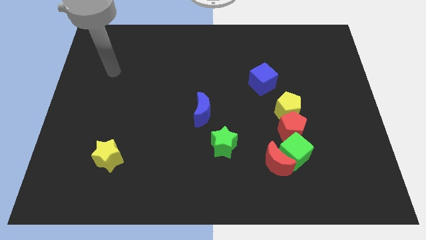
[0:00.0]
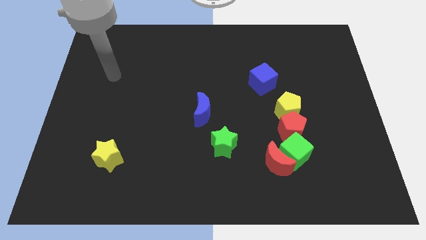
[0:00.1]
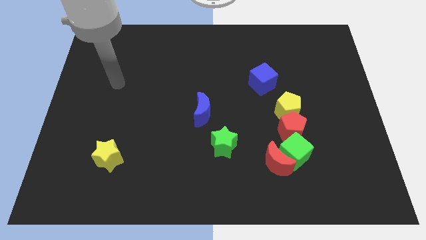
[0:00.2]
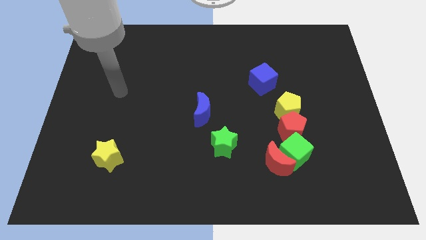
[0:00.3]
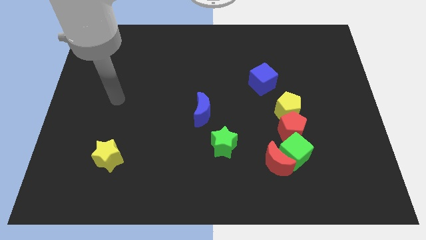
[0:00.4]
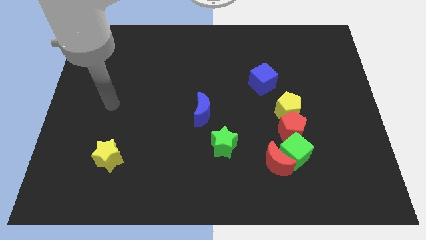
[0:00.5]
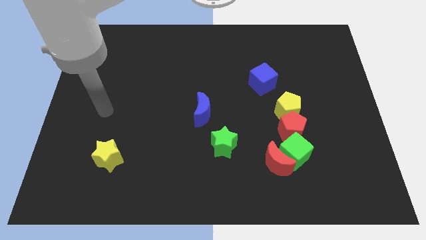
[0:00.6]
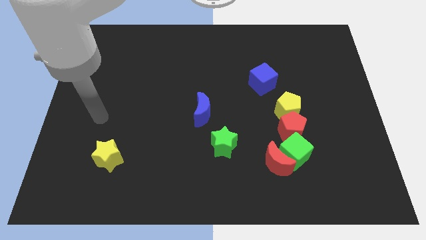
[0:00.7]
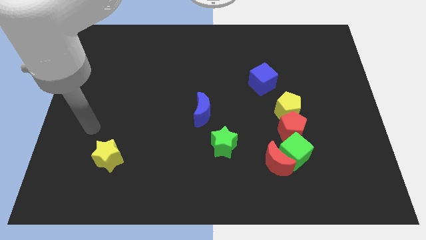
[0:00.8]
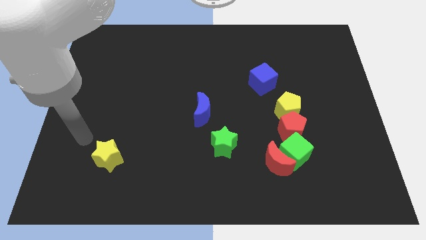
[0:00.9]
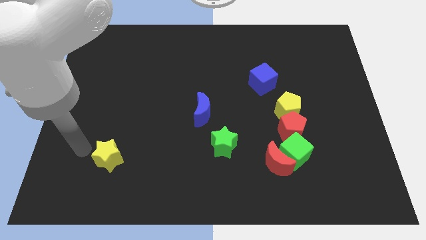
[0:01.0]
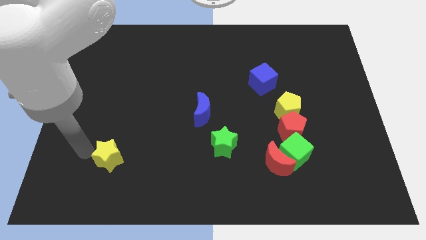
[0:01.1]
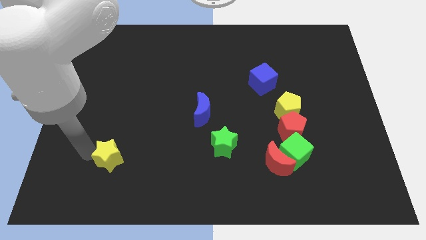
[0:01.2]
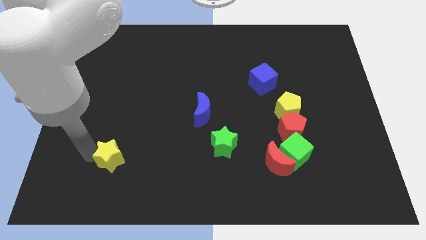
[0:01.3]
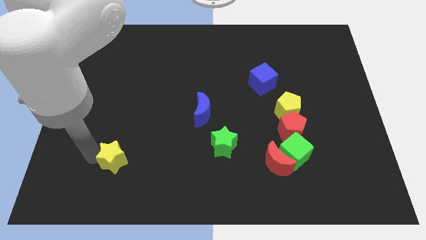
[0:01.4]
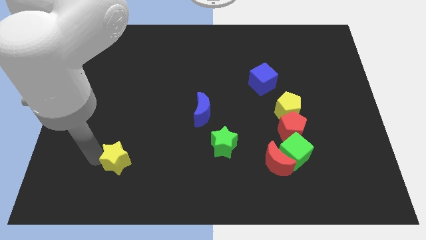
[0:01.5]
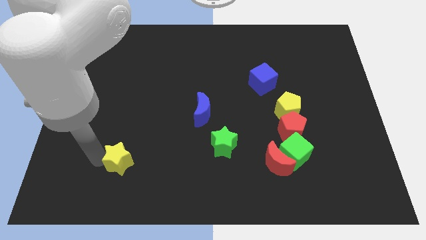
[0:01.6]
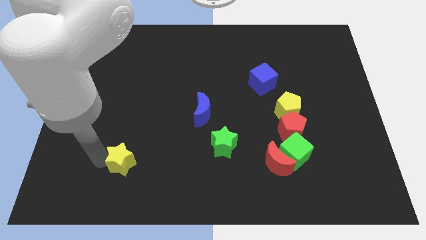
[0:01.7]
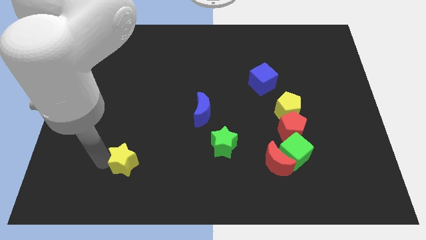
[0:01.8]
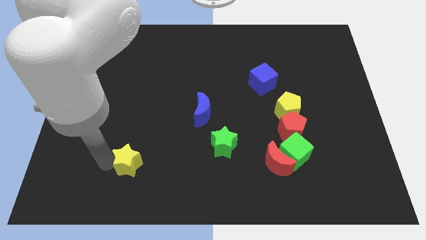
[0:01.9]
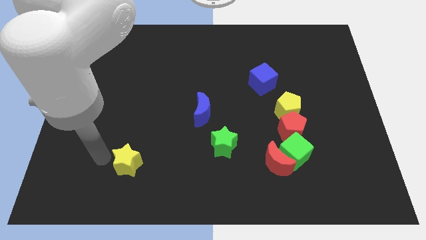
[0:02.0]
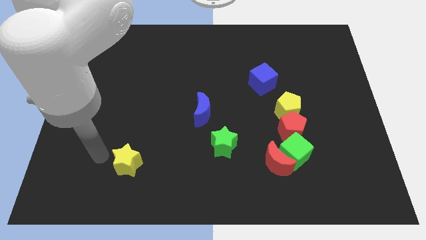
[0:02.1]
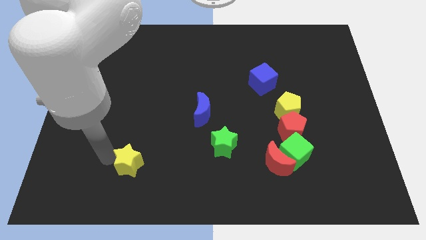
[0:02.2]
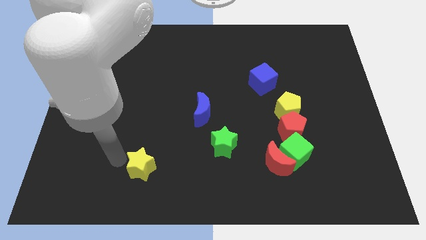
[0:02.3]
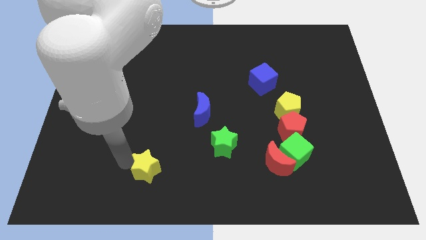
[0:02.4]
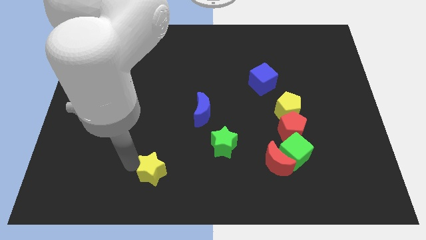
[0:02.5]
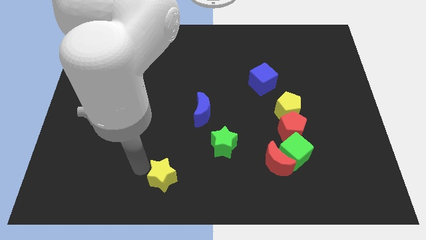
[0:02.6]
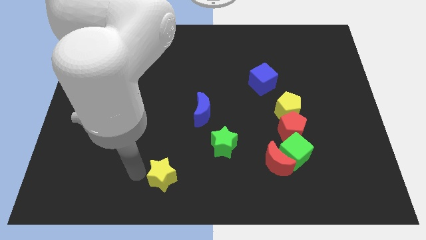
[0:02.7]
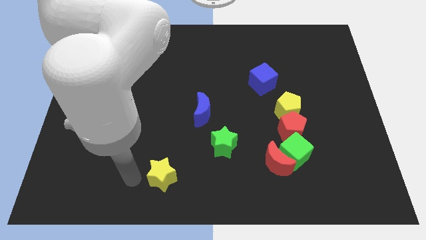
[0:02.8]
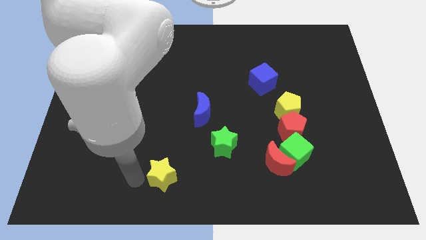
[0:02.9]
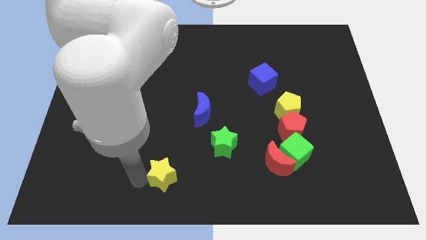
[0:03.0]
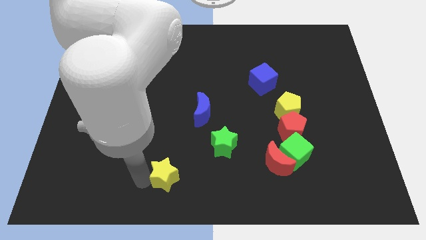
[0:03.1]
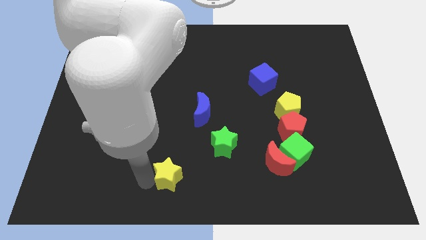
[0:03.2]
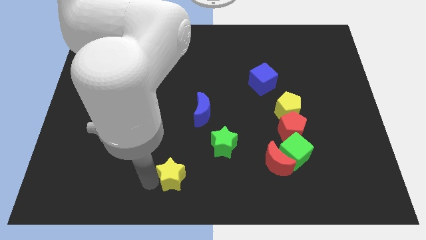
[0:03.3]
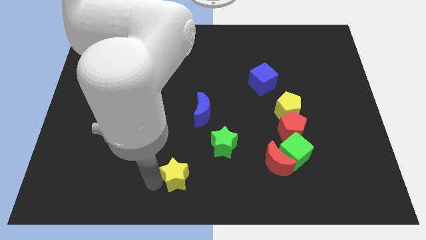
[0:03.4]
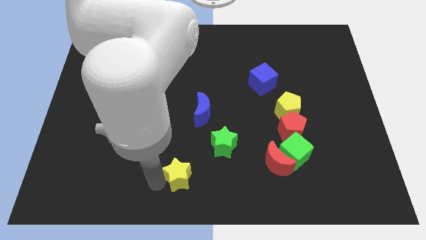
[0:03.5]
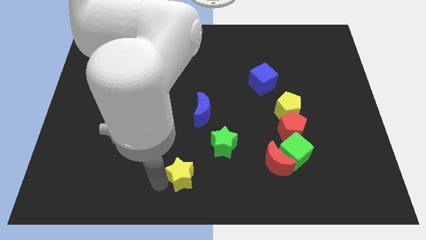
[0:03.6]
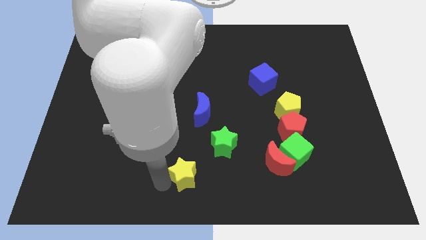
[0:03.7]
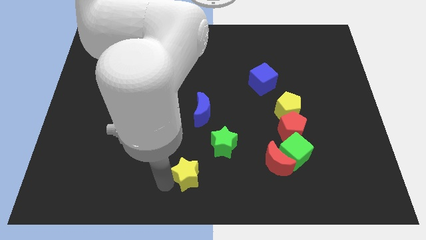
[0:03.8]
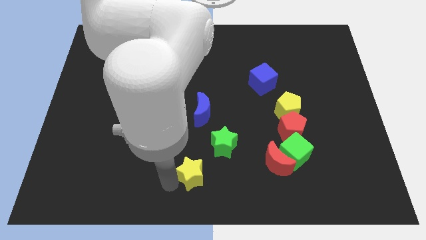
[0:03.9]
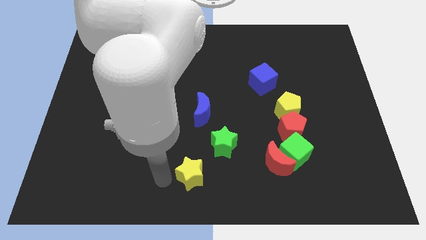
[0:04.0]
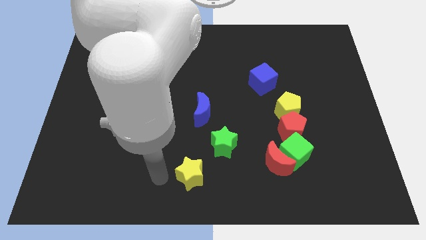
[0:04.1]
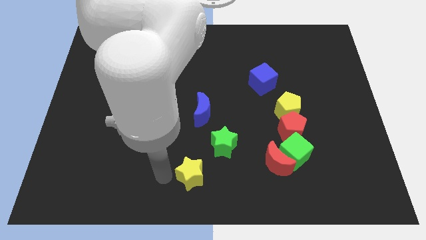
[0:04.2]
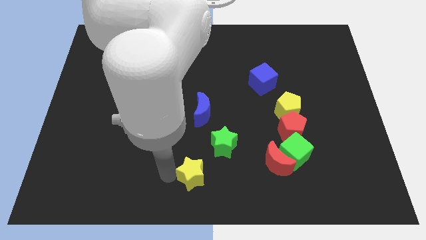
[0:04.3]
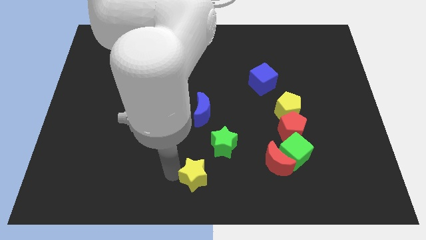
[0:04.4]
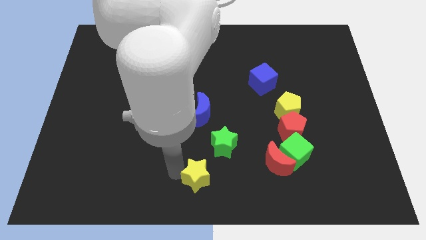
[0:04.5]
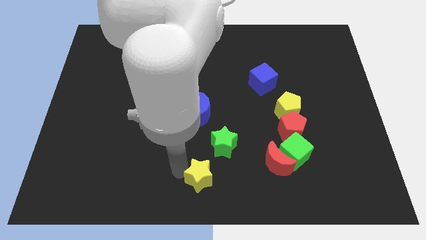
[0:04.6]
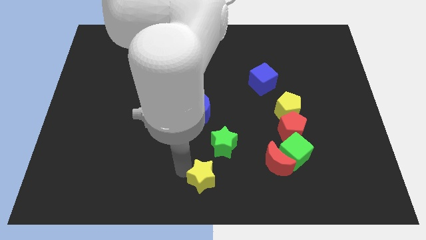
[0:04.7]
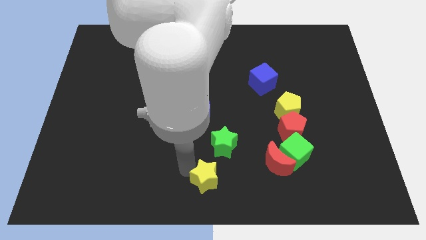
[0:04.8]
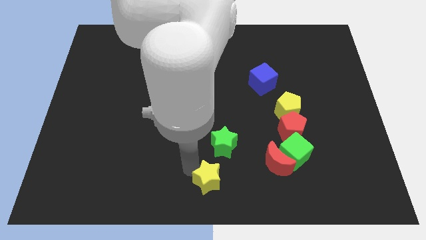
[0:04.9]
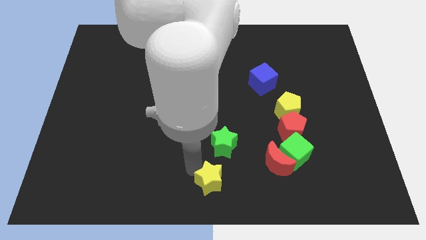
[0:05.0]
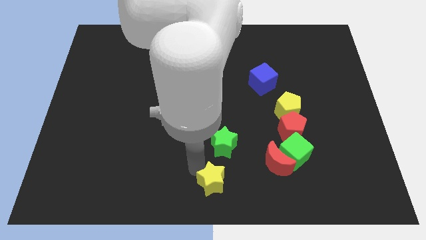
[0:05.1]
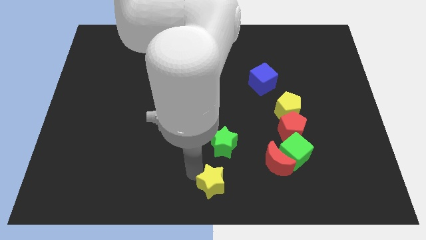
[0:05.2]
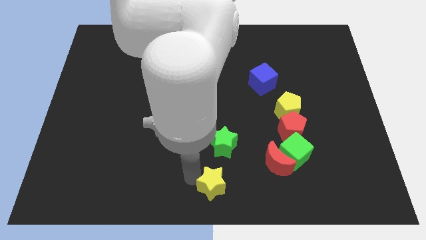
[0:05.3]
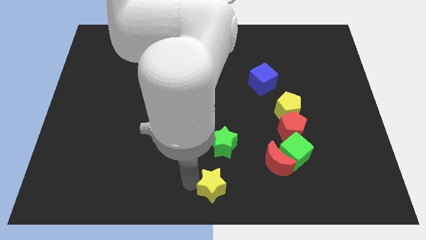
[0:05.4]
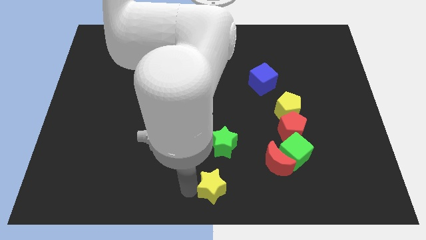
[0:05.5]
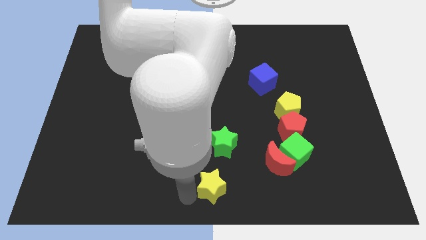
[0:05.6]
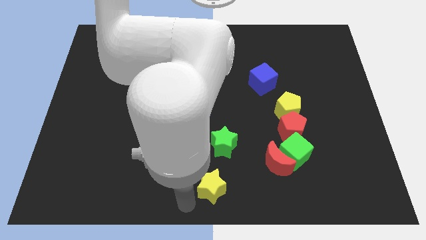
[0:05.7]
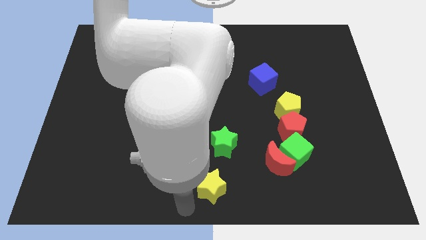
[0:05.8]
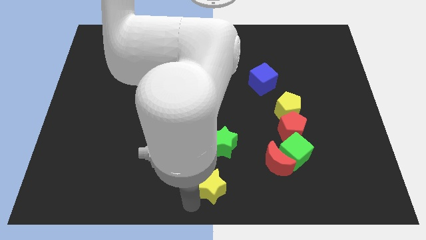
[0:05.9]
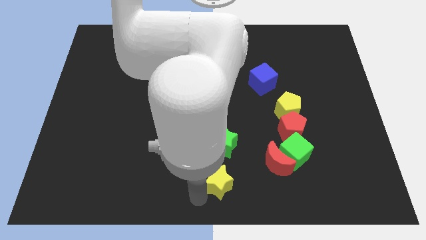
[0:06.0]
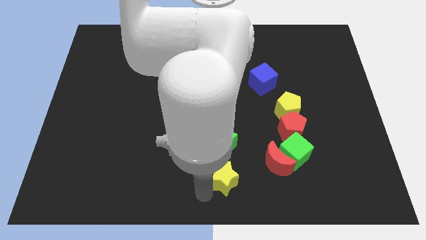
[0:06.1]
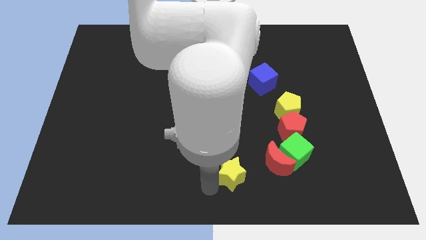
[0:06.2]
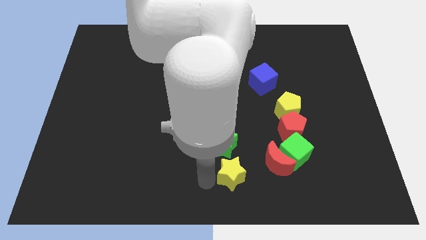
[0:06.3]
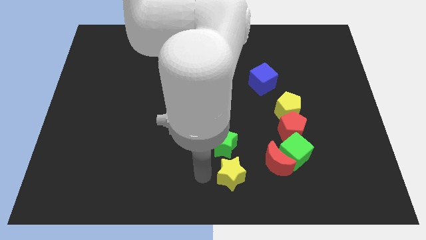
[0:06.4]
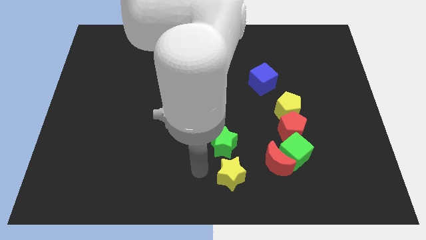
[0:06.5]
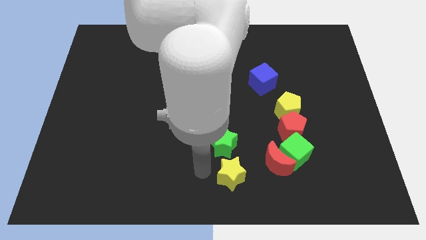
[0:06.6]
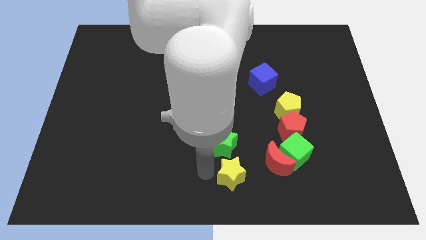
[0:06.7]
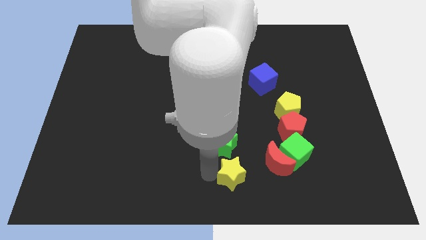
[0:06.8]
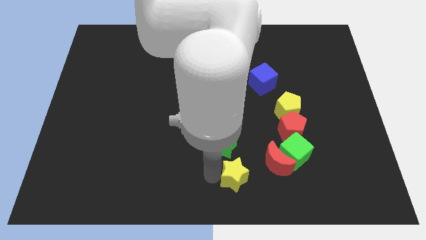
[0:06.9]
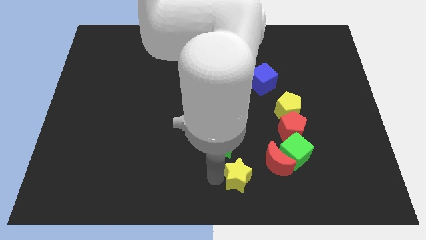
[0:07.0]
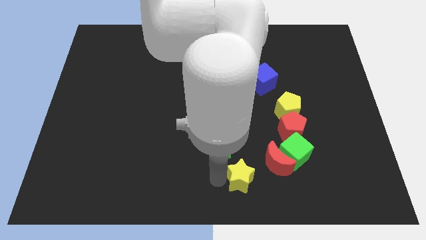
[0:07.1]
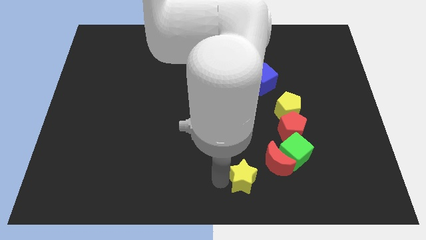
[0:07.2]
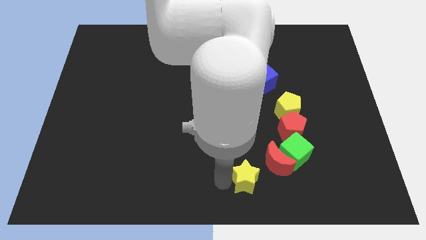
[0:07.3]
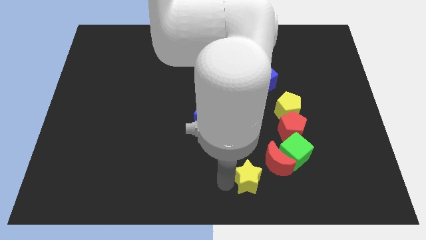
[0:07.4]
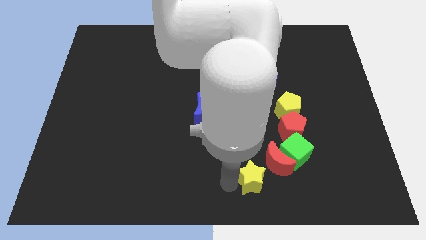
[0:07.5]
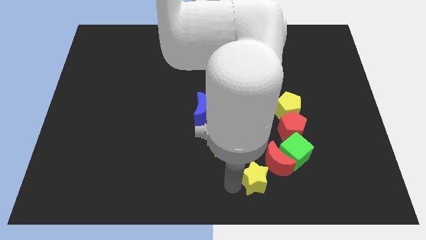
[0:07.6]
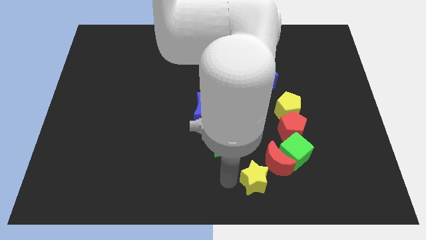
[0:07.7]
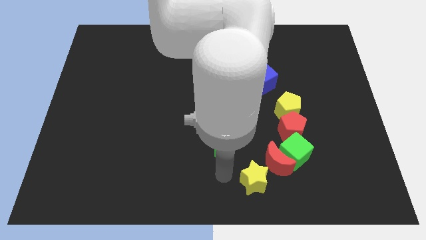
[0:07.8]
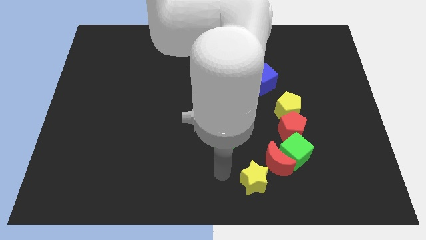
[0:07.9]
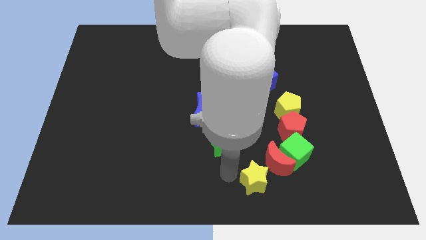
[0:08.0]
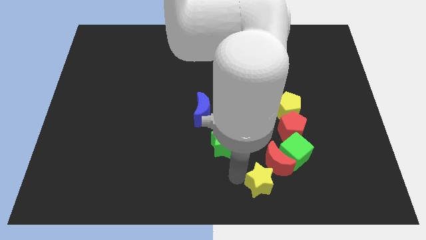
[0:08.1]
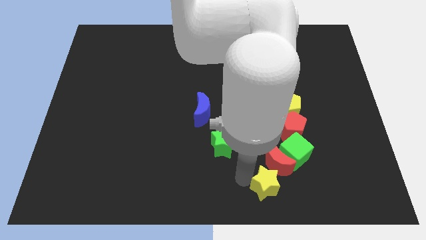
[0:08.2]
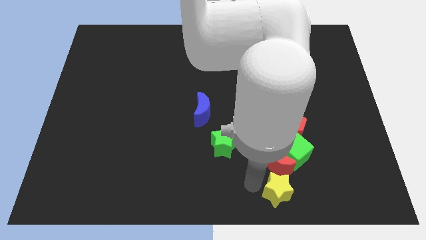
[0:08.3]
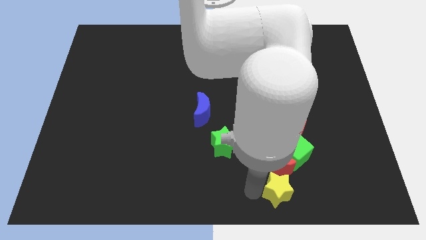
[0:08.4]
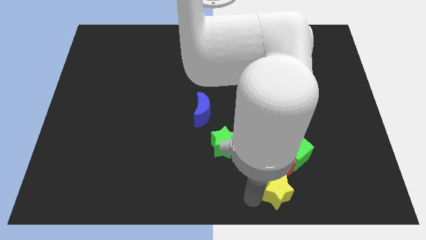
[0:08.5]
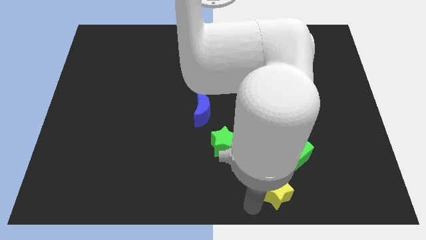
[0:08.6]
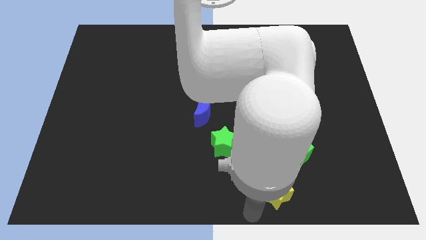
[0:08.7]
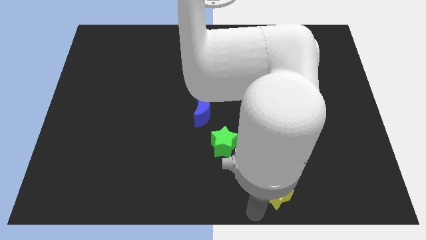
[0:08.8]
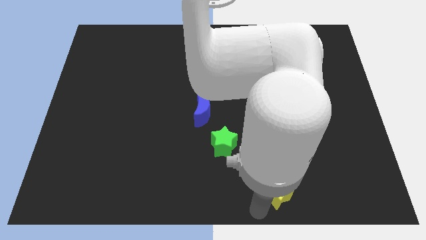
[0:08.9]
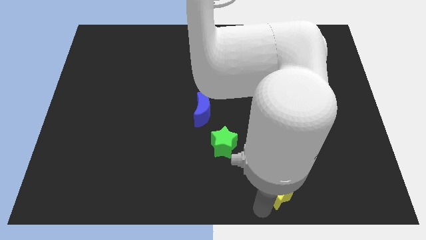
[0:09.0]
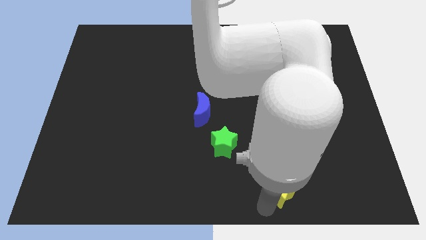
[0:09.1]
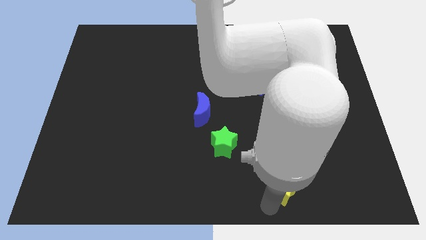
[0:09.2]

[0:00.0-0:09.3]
slide the yellow star below the red pentagon
